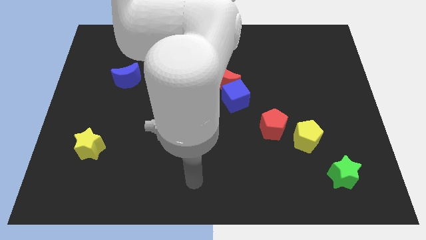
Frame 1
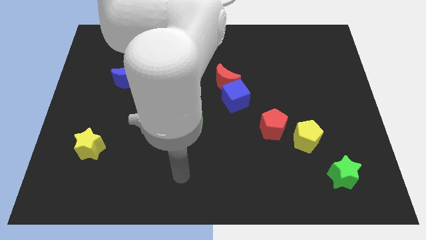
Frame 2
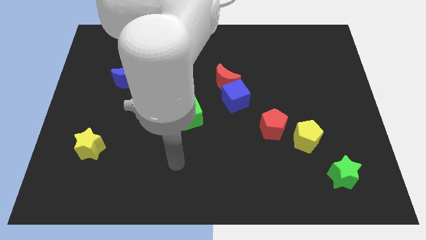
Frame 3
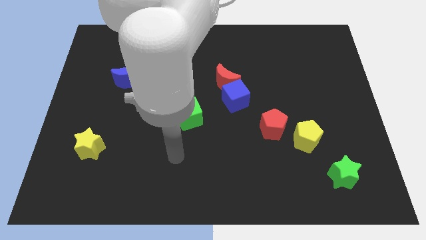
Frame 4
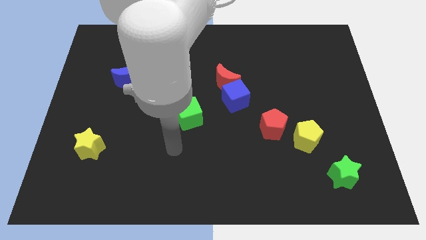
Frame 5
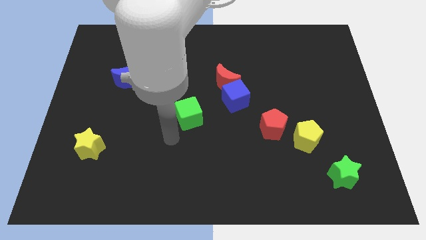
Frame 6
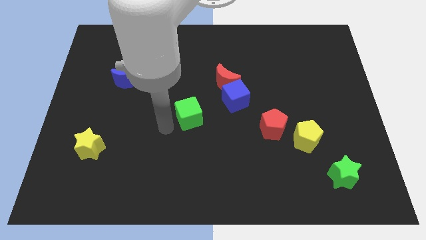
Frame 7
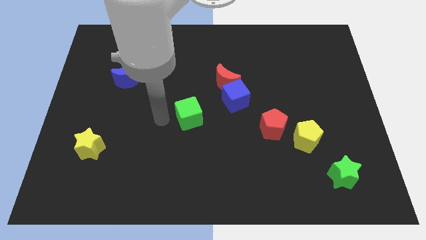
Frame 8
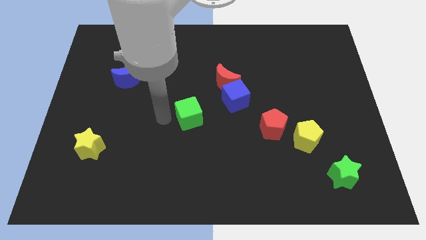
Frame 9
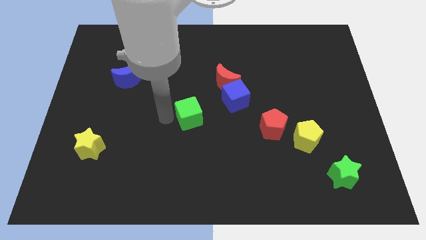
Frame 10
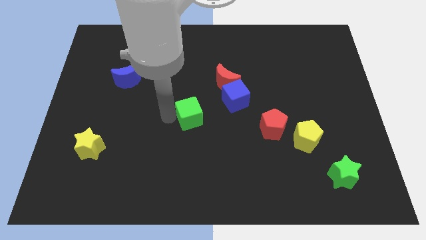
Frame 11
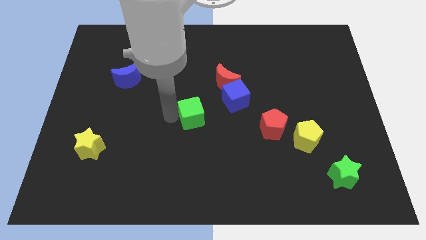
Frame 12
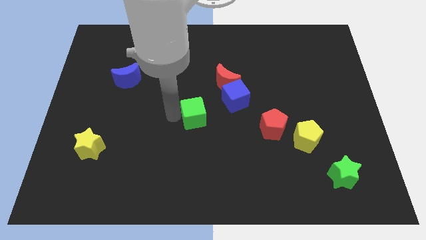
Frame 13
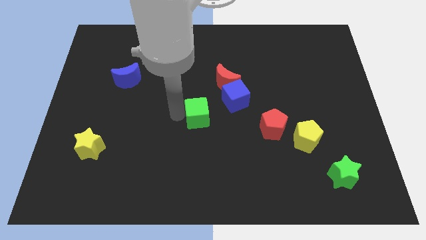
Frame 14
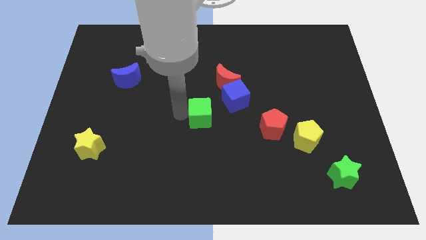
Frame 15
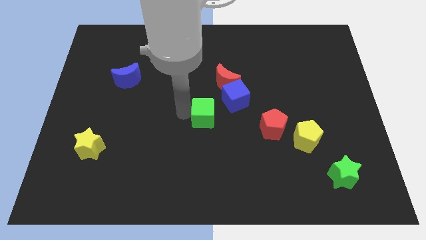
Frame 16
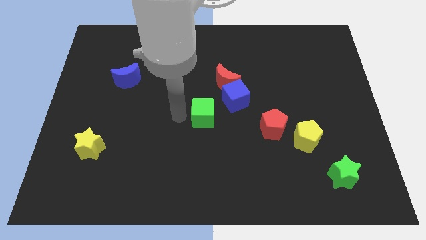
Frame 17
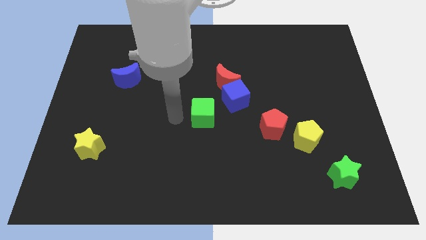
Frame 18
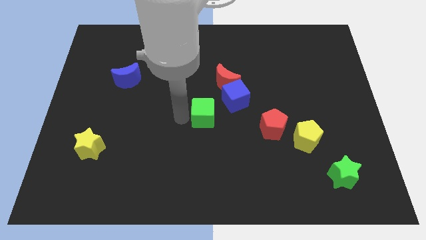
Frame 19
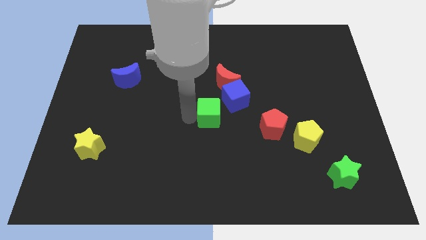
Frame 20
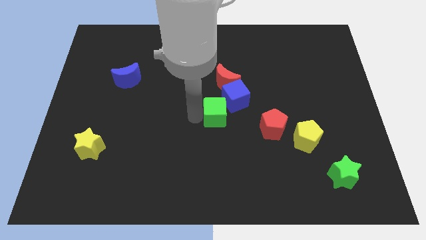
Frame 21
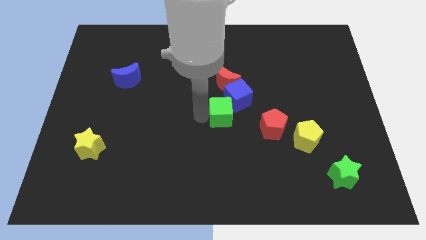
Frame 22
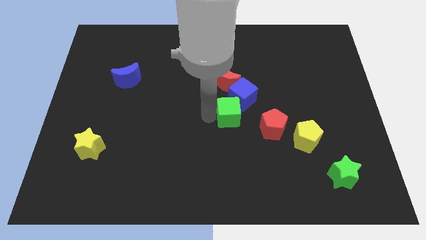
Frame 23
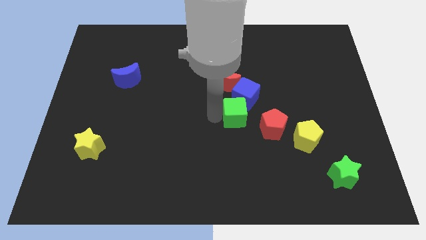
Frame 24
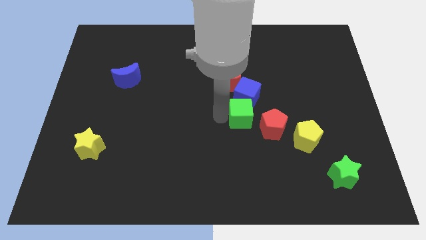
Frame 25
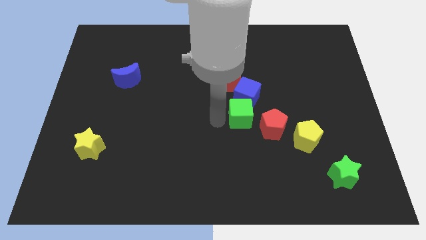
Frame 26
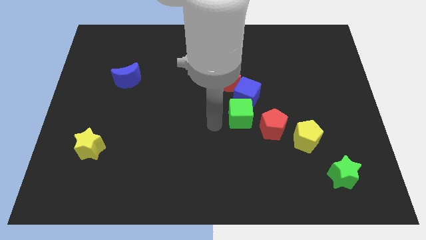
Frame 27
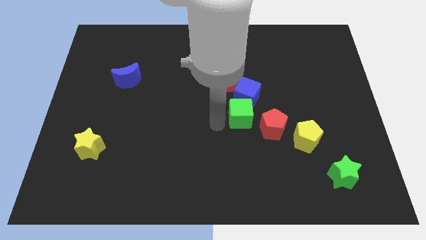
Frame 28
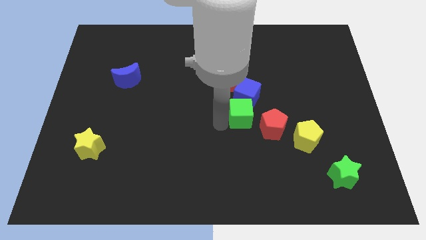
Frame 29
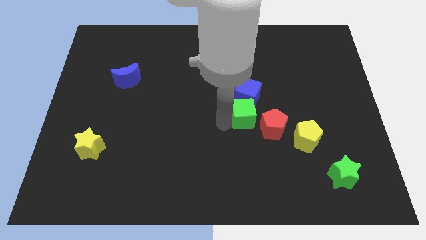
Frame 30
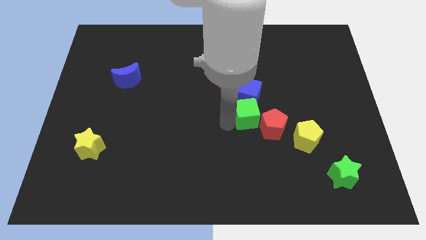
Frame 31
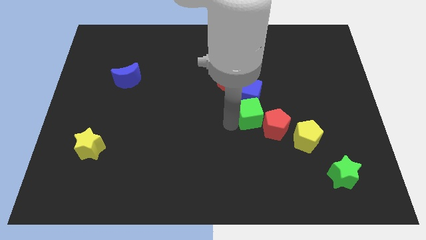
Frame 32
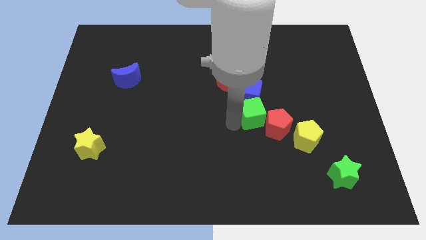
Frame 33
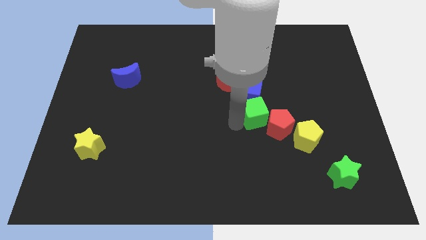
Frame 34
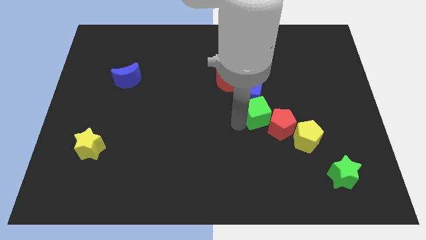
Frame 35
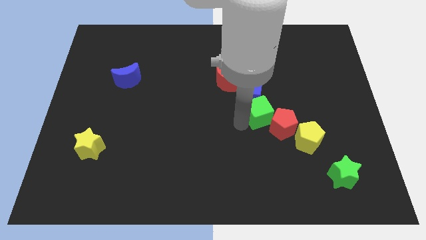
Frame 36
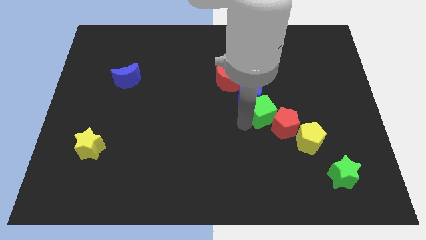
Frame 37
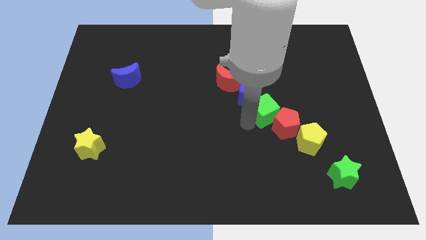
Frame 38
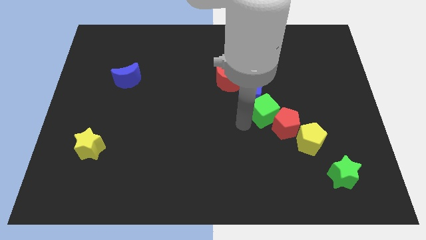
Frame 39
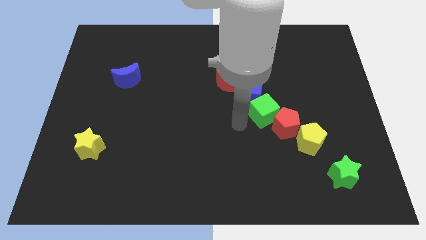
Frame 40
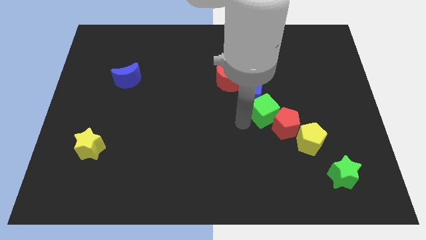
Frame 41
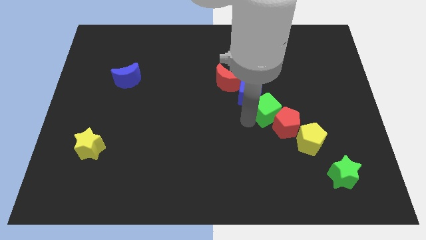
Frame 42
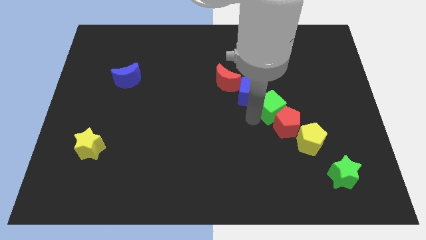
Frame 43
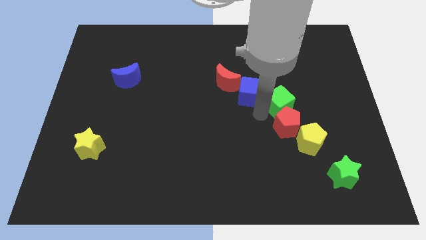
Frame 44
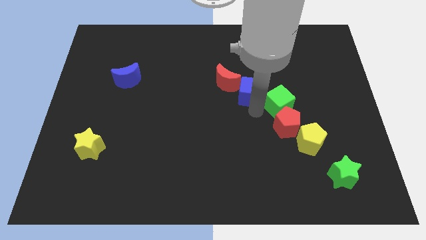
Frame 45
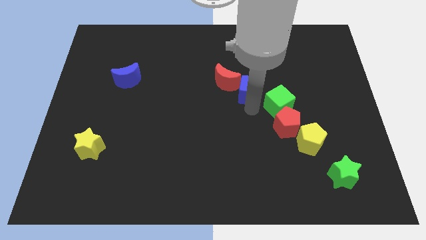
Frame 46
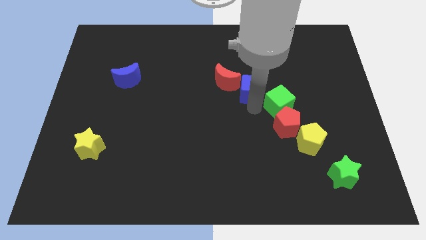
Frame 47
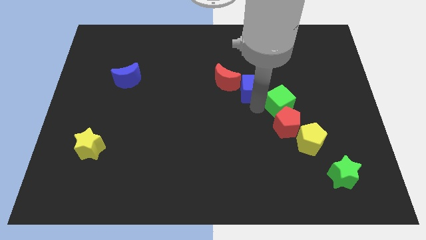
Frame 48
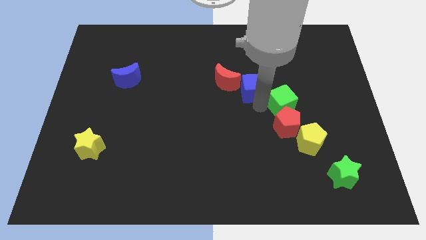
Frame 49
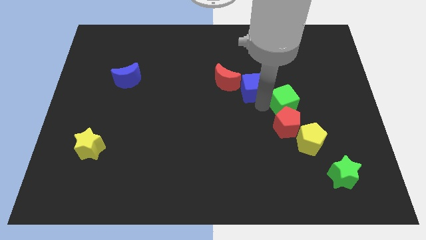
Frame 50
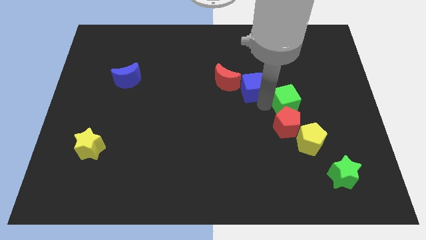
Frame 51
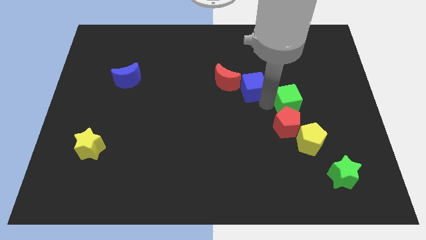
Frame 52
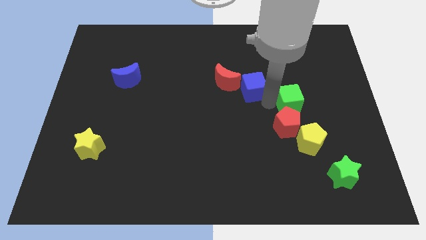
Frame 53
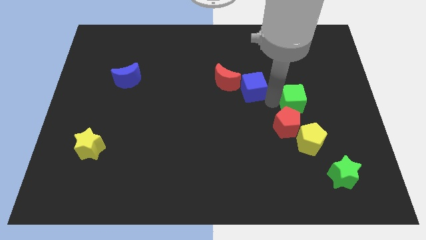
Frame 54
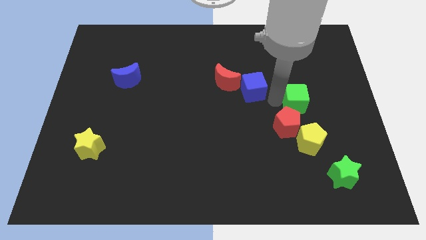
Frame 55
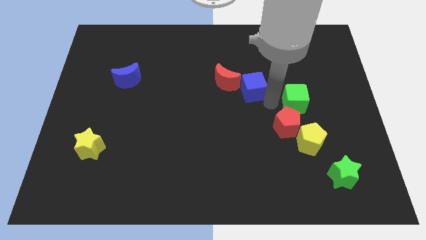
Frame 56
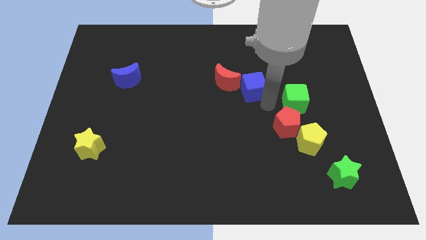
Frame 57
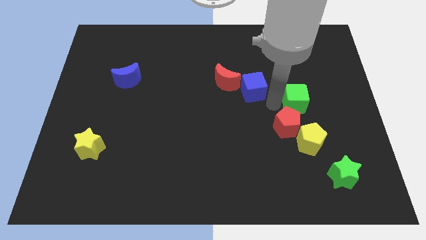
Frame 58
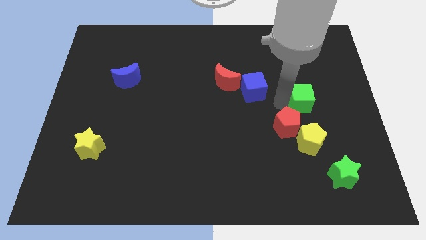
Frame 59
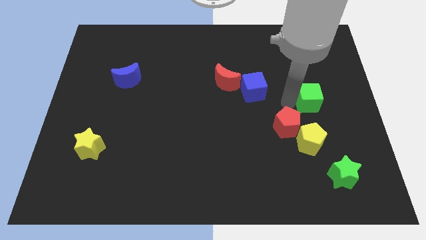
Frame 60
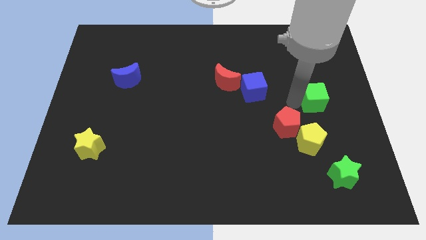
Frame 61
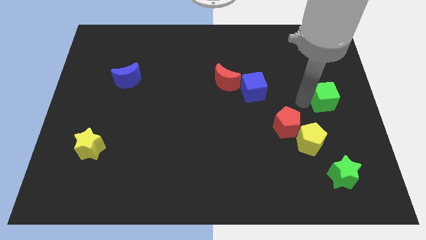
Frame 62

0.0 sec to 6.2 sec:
put the green cube to the right side of the board
